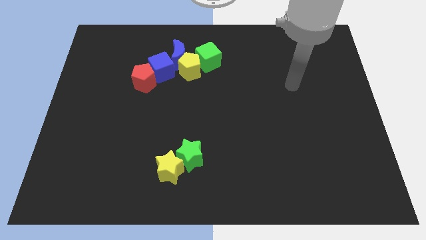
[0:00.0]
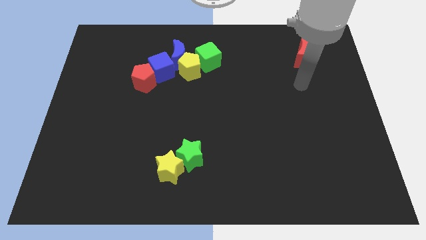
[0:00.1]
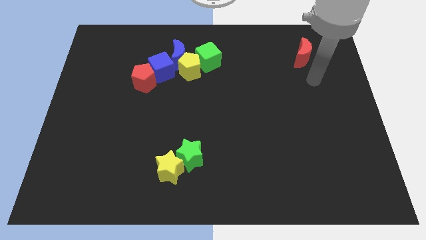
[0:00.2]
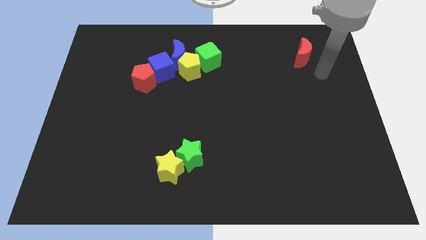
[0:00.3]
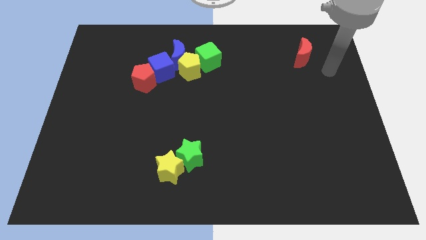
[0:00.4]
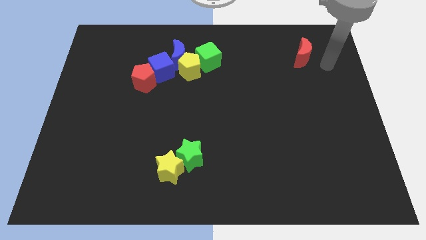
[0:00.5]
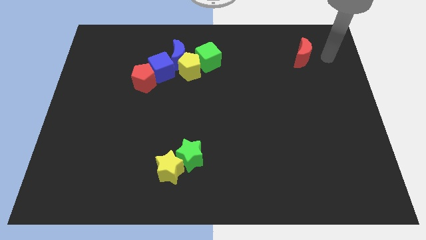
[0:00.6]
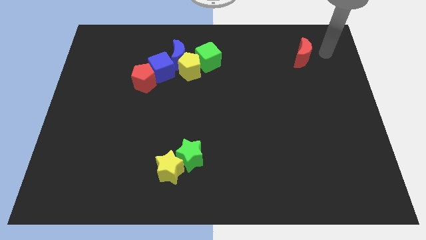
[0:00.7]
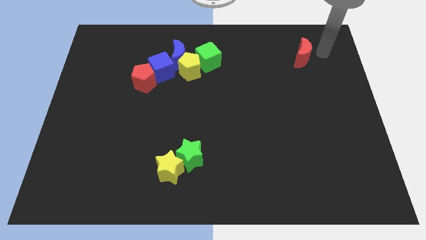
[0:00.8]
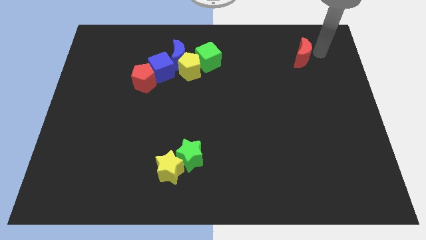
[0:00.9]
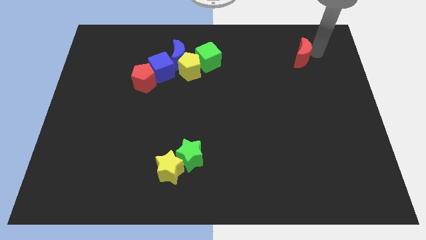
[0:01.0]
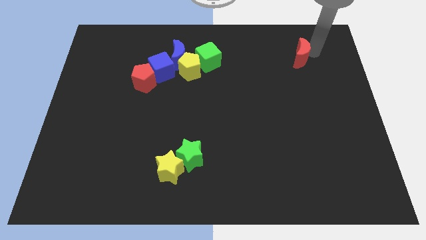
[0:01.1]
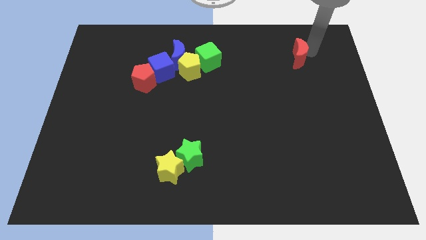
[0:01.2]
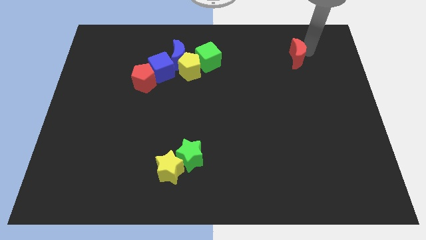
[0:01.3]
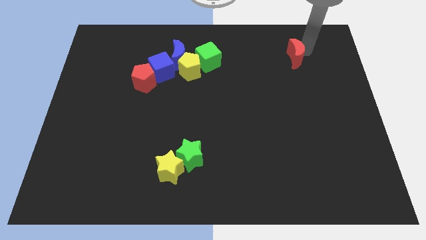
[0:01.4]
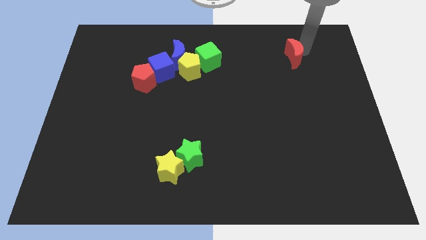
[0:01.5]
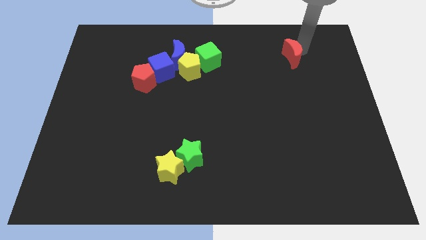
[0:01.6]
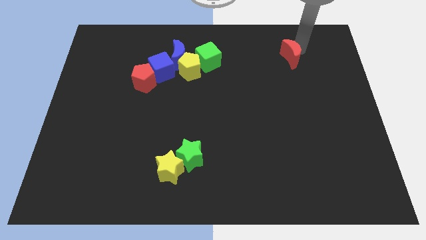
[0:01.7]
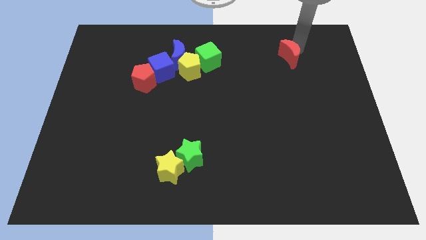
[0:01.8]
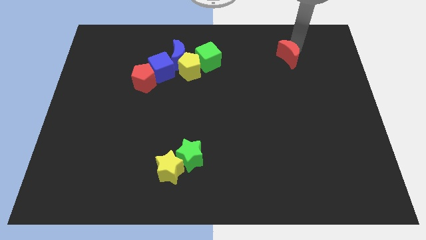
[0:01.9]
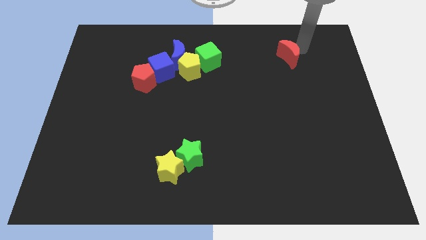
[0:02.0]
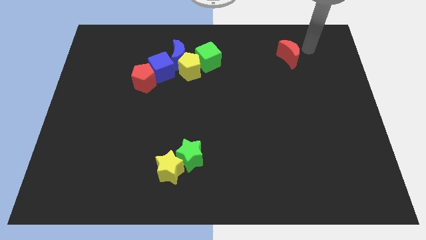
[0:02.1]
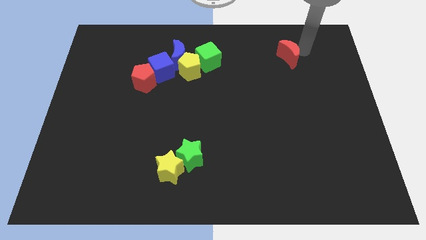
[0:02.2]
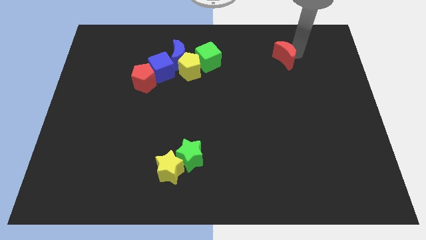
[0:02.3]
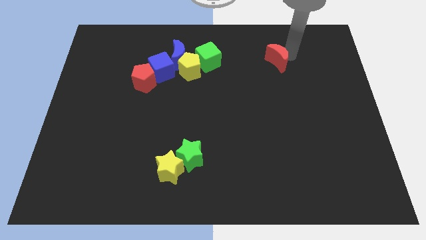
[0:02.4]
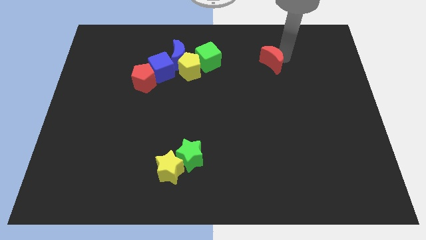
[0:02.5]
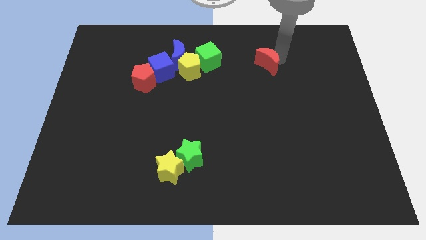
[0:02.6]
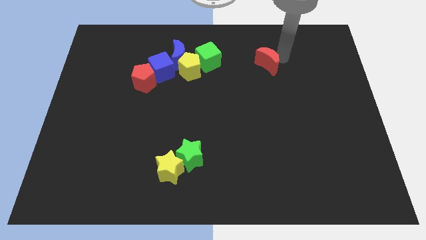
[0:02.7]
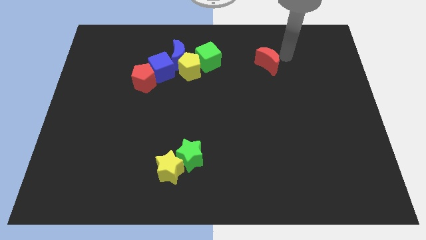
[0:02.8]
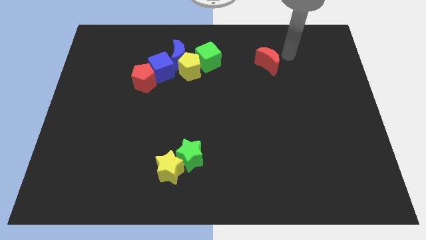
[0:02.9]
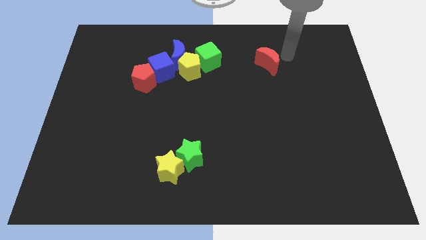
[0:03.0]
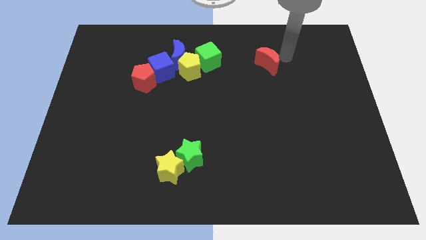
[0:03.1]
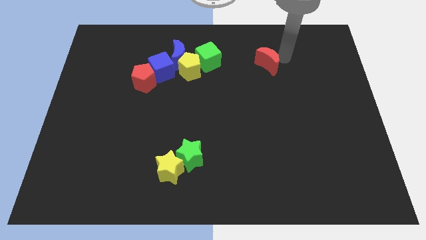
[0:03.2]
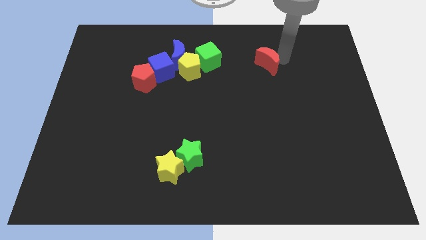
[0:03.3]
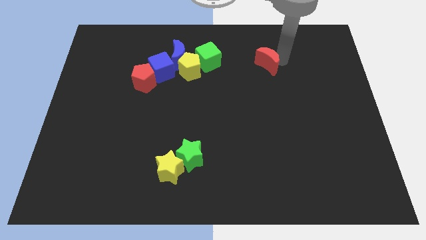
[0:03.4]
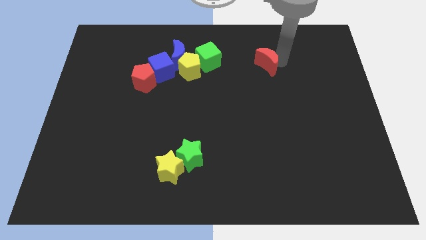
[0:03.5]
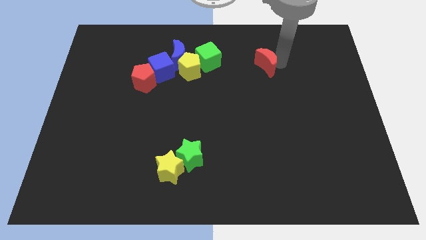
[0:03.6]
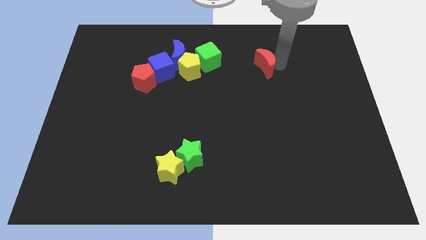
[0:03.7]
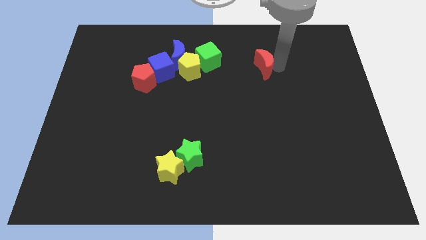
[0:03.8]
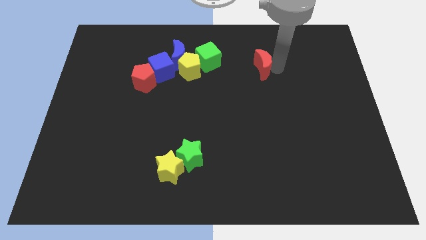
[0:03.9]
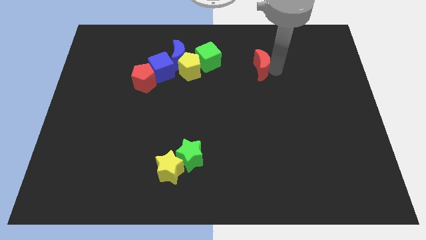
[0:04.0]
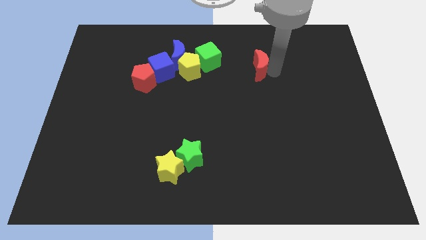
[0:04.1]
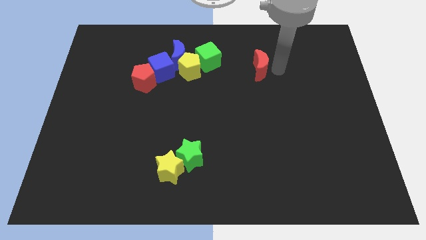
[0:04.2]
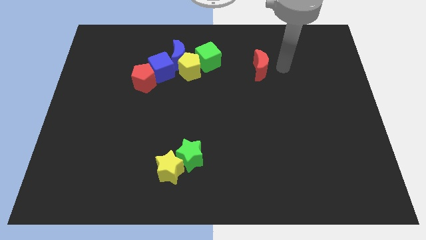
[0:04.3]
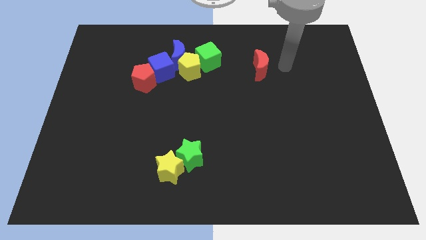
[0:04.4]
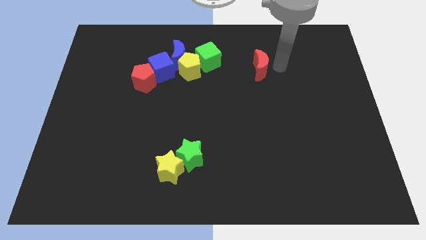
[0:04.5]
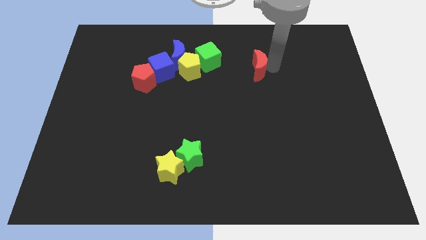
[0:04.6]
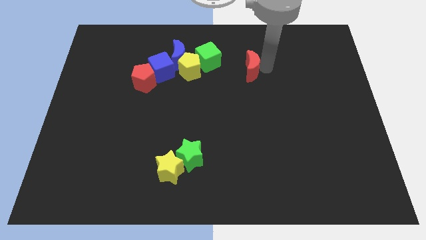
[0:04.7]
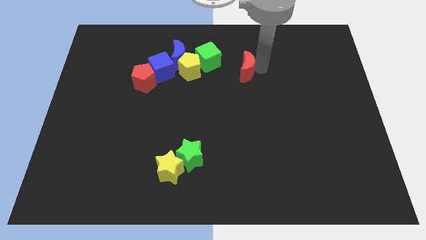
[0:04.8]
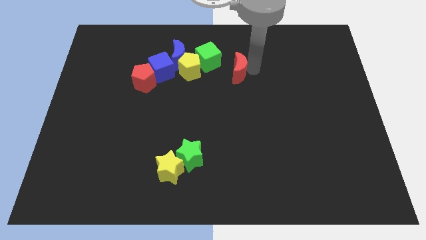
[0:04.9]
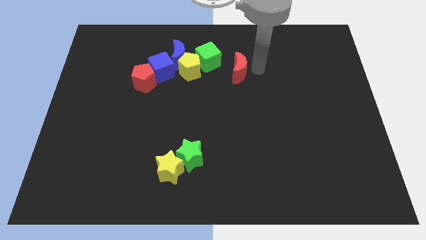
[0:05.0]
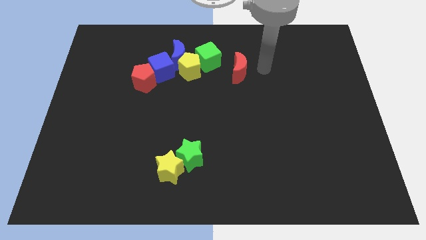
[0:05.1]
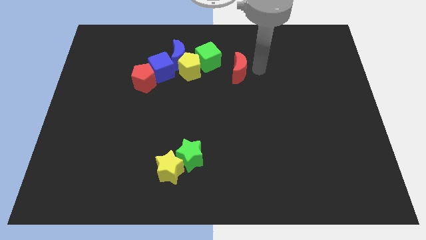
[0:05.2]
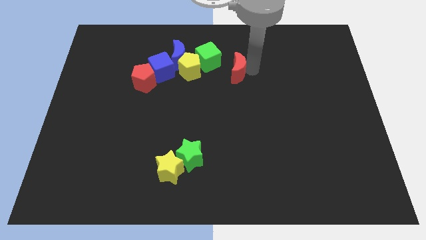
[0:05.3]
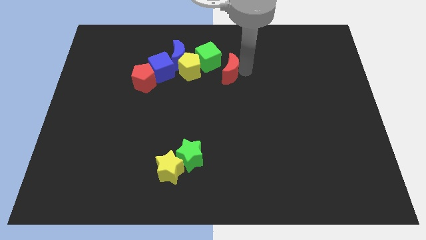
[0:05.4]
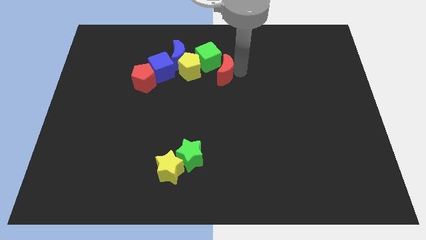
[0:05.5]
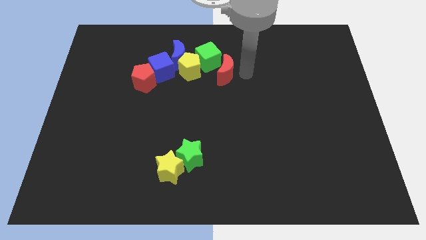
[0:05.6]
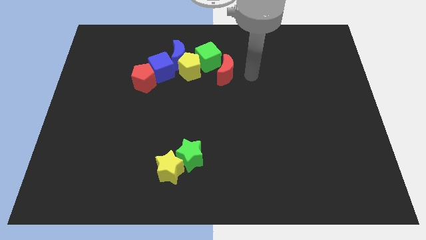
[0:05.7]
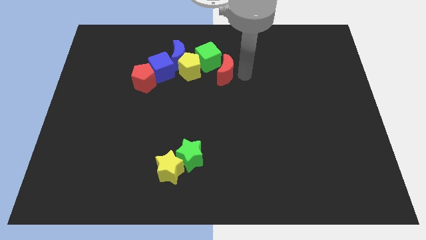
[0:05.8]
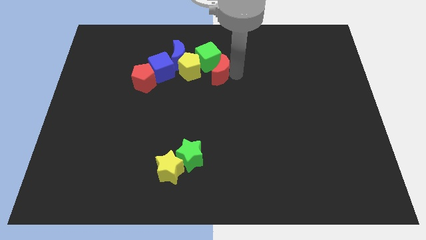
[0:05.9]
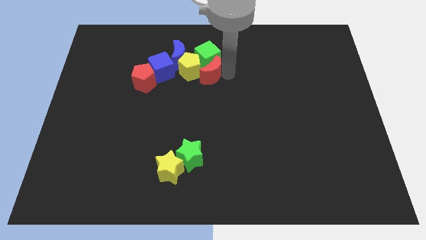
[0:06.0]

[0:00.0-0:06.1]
push the red moon next to the yellow pentagon

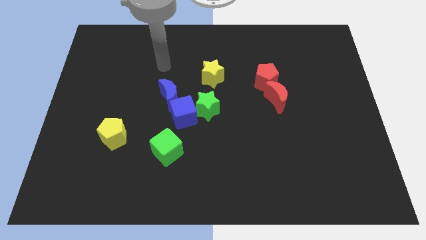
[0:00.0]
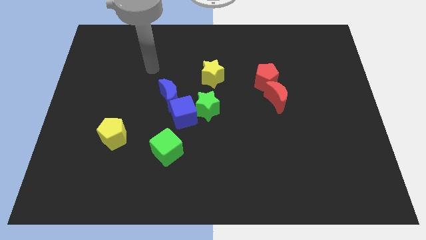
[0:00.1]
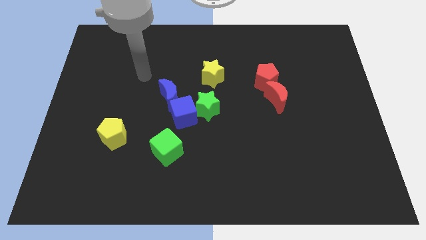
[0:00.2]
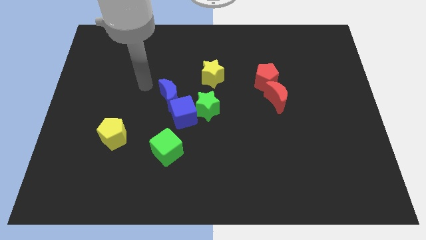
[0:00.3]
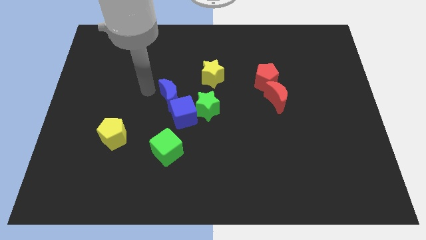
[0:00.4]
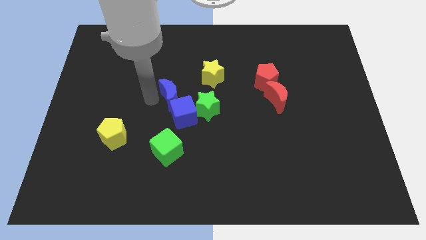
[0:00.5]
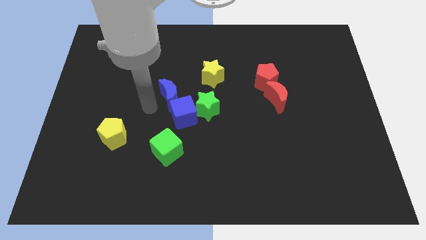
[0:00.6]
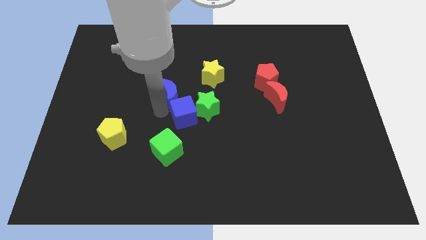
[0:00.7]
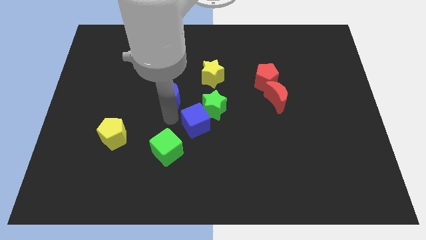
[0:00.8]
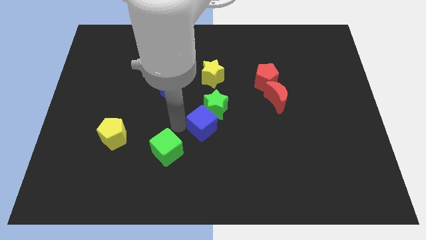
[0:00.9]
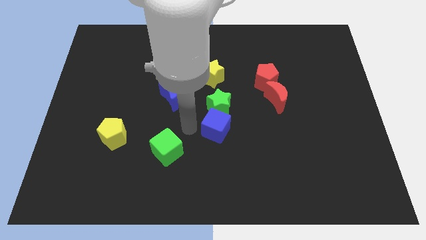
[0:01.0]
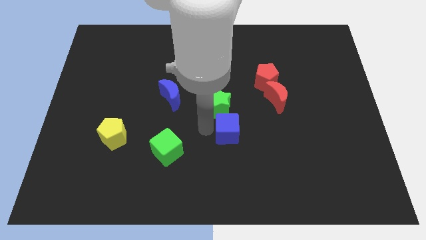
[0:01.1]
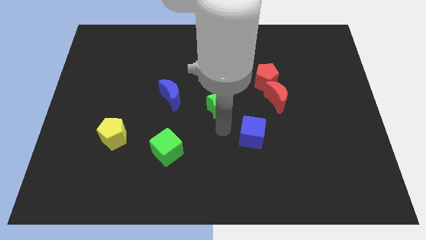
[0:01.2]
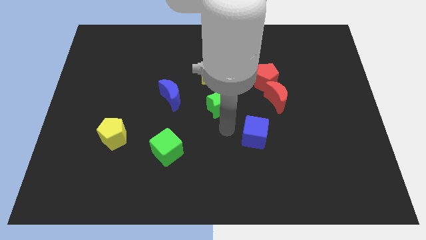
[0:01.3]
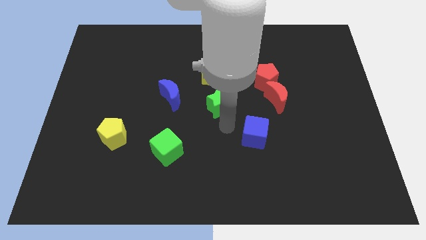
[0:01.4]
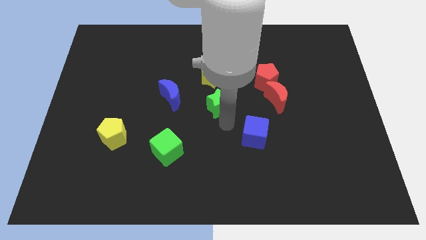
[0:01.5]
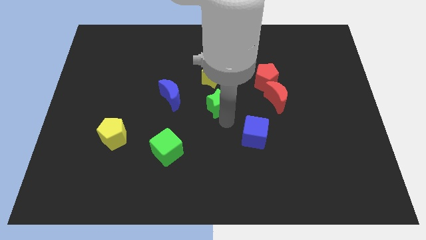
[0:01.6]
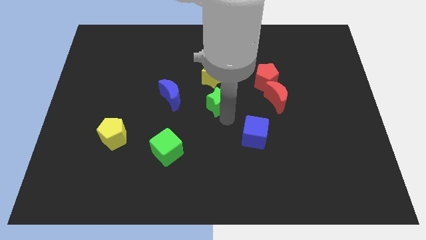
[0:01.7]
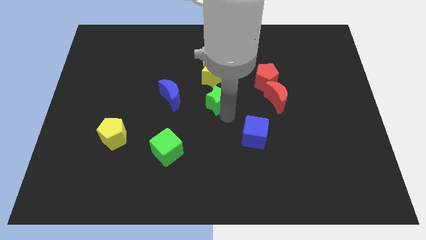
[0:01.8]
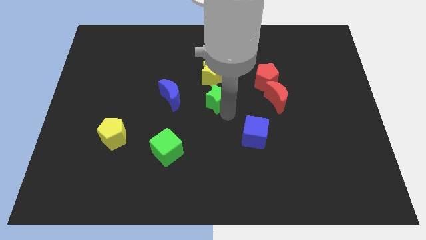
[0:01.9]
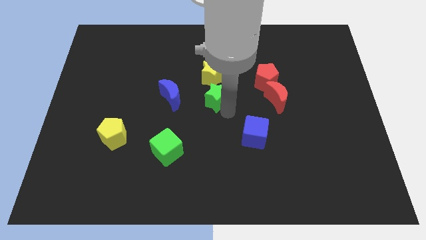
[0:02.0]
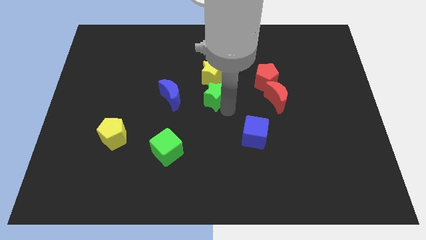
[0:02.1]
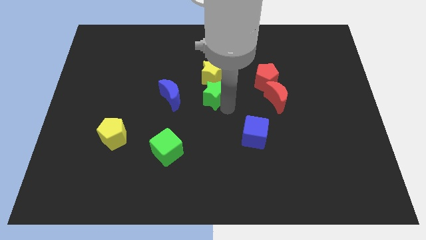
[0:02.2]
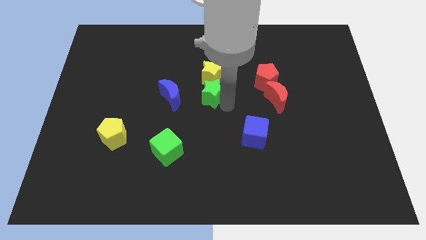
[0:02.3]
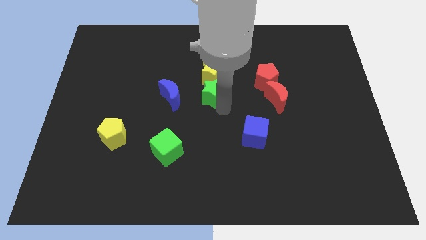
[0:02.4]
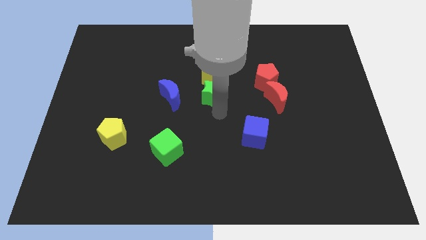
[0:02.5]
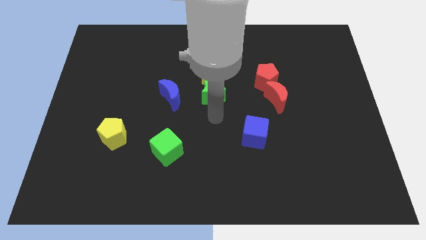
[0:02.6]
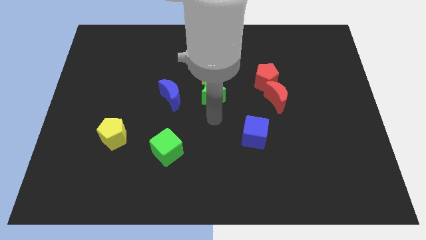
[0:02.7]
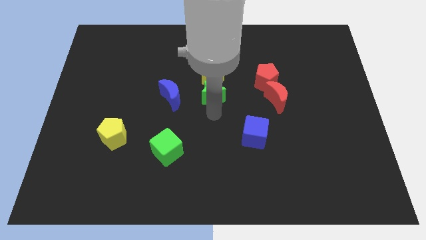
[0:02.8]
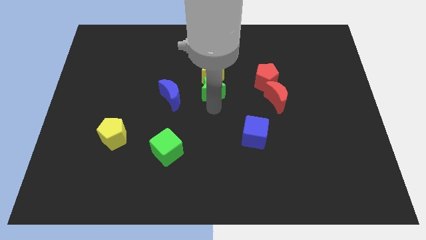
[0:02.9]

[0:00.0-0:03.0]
put the green star towards the yellow star
